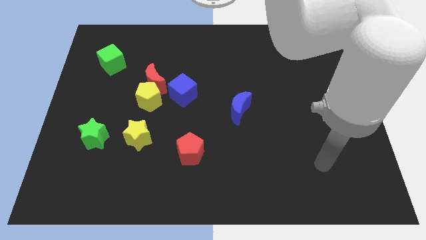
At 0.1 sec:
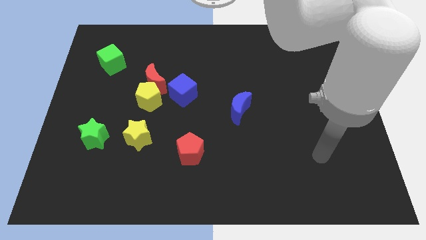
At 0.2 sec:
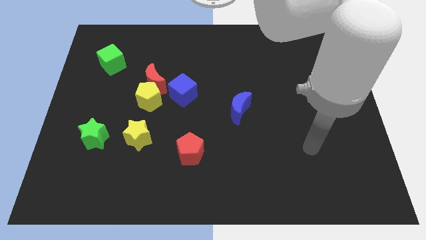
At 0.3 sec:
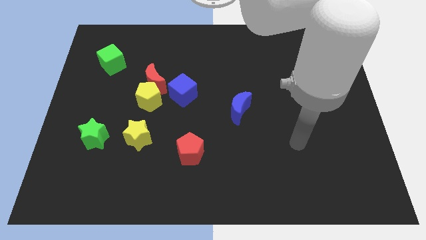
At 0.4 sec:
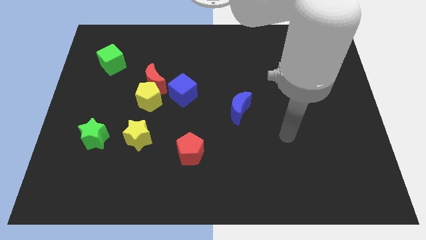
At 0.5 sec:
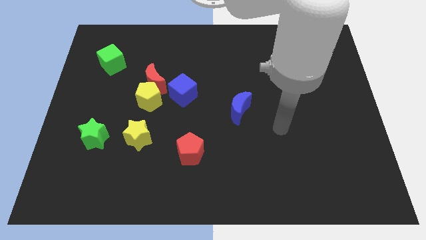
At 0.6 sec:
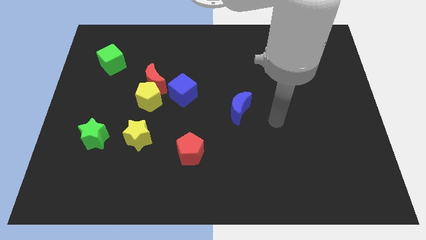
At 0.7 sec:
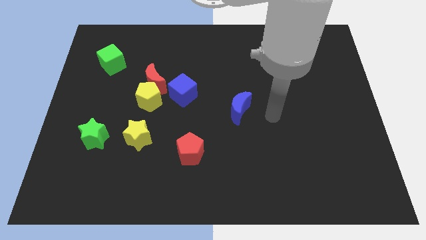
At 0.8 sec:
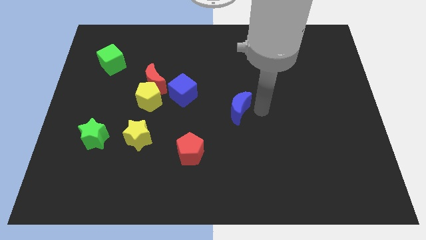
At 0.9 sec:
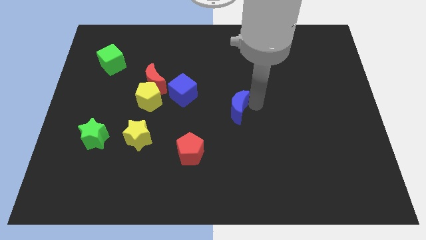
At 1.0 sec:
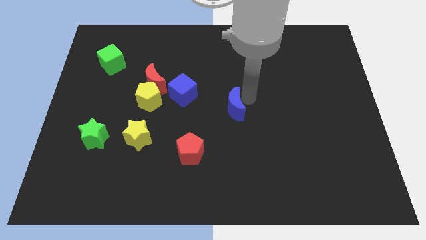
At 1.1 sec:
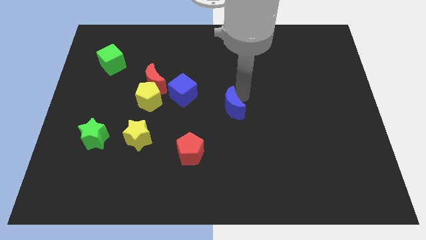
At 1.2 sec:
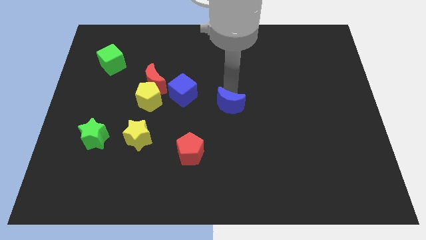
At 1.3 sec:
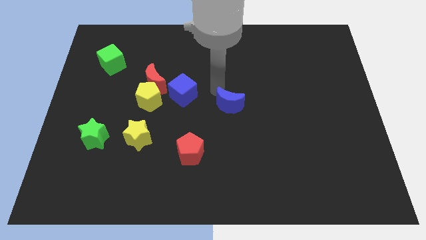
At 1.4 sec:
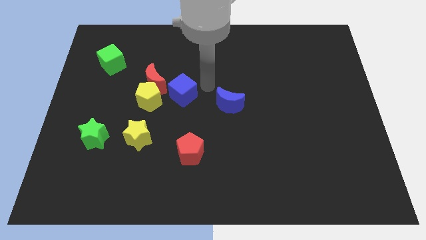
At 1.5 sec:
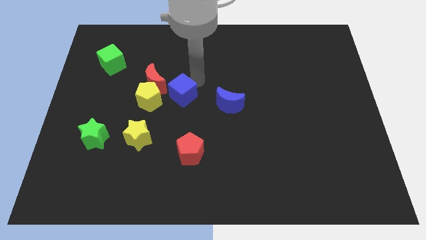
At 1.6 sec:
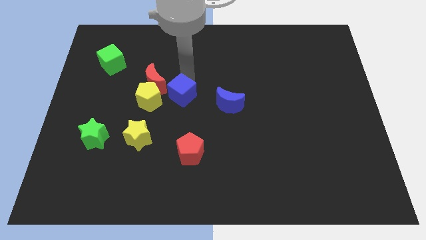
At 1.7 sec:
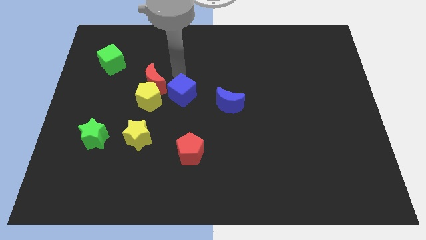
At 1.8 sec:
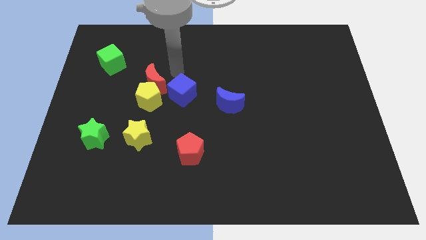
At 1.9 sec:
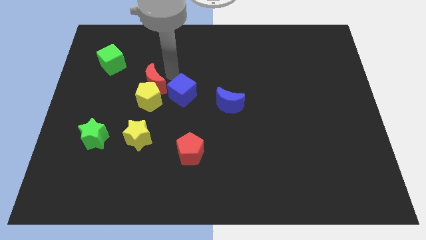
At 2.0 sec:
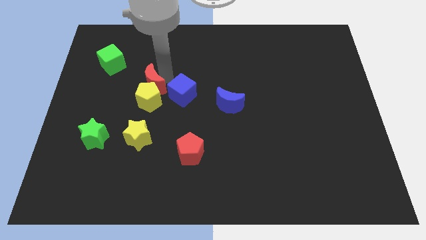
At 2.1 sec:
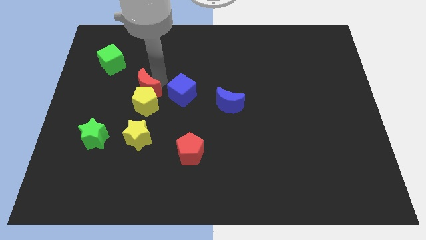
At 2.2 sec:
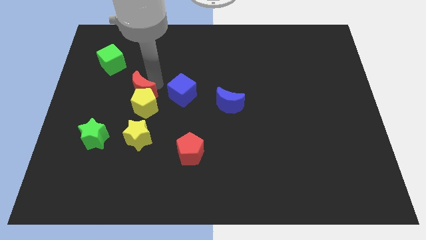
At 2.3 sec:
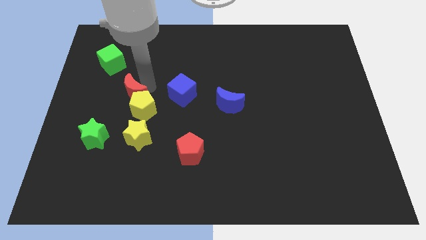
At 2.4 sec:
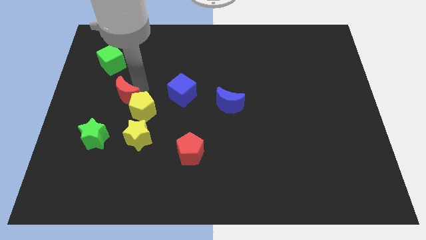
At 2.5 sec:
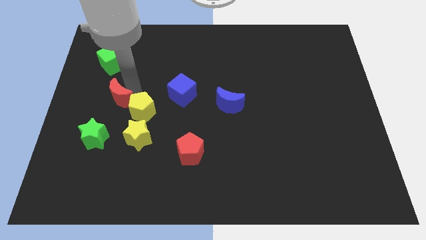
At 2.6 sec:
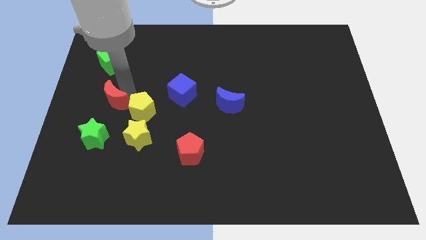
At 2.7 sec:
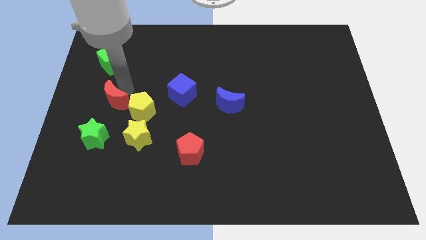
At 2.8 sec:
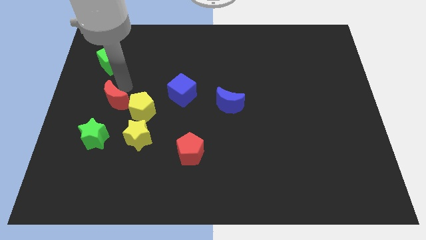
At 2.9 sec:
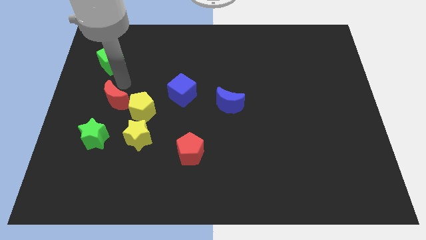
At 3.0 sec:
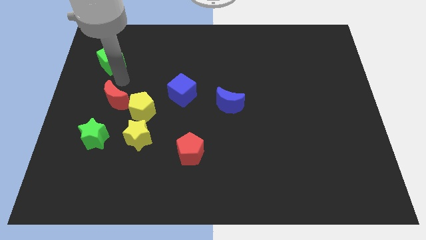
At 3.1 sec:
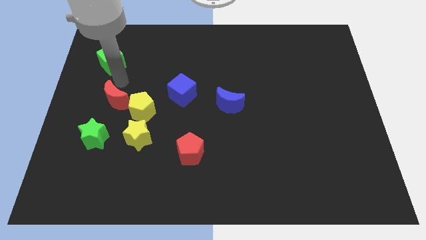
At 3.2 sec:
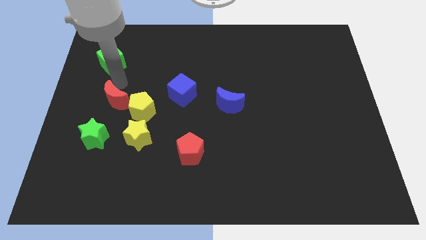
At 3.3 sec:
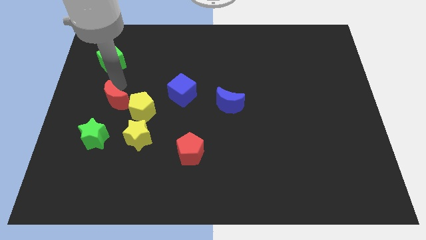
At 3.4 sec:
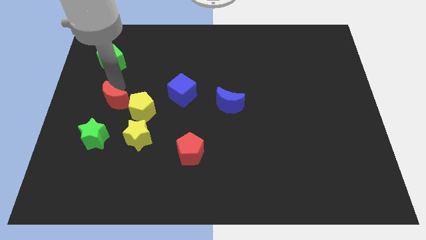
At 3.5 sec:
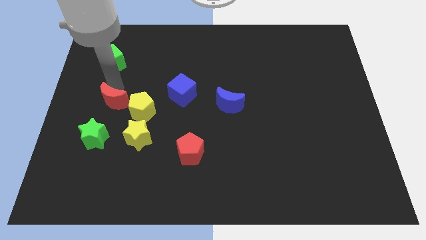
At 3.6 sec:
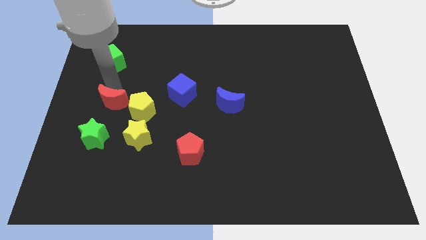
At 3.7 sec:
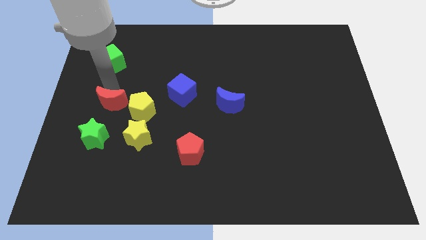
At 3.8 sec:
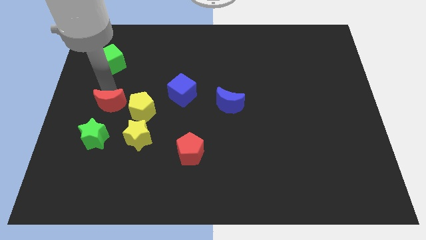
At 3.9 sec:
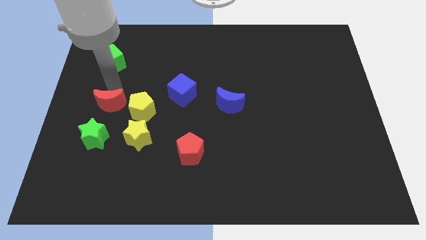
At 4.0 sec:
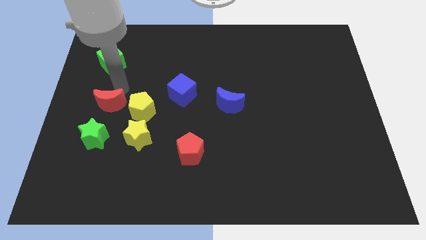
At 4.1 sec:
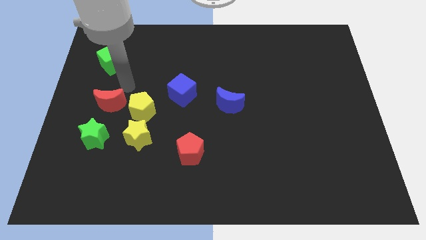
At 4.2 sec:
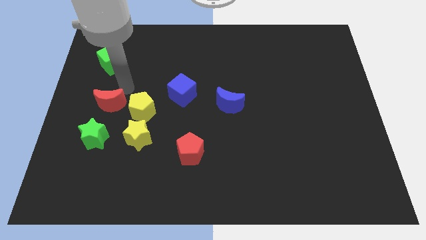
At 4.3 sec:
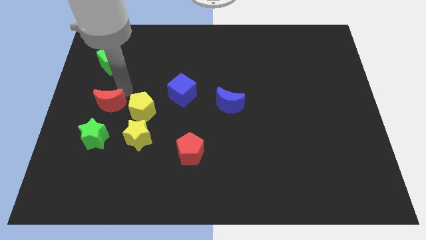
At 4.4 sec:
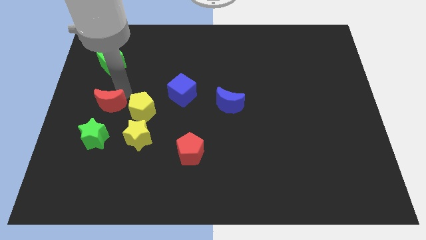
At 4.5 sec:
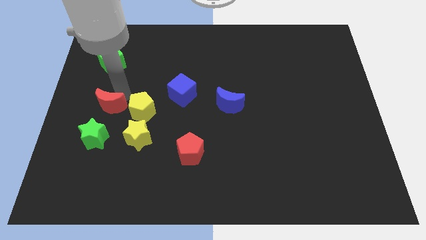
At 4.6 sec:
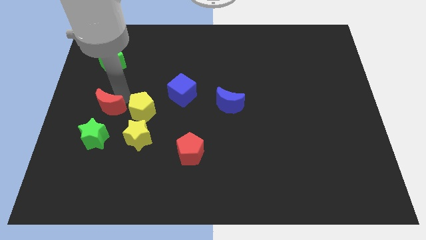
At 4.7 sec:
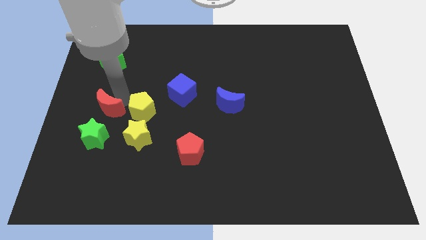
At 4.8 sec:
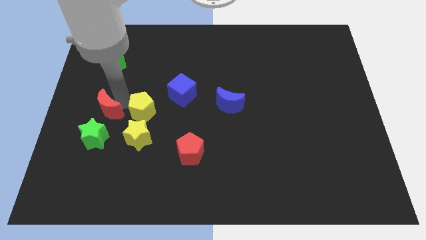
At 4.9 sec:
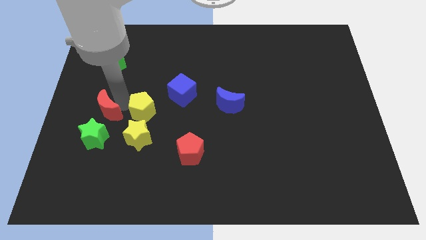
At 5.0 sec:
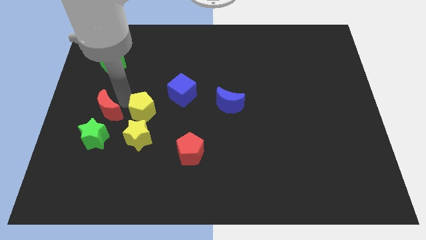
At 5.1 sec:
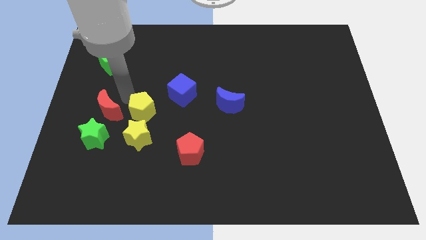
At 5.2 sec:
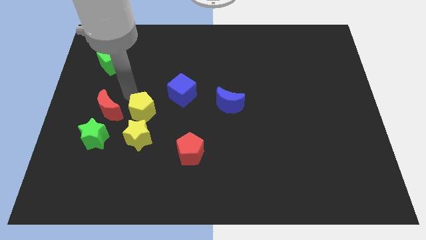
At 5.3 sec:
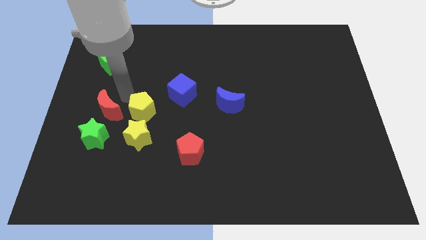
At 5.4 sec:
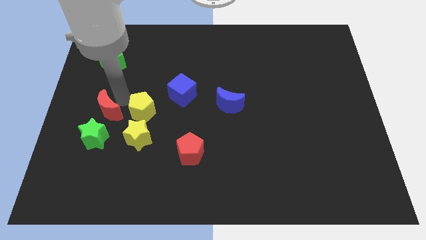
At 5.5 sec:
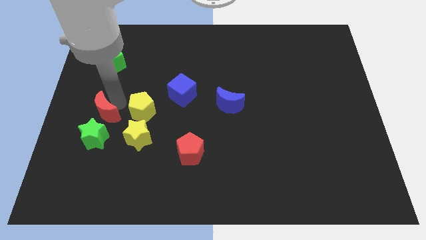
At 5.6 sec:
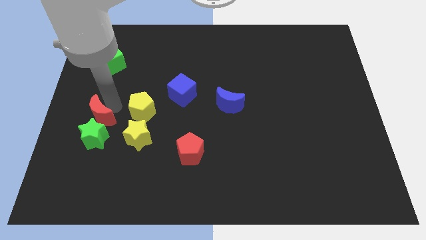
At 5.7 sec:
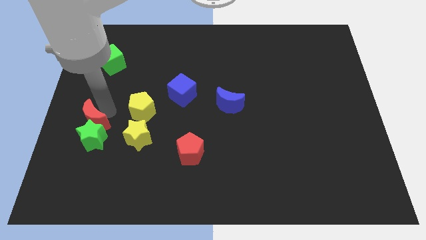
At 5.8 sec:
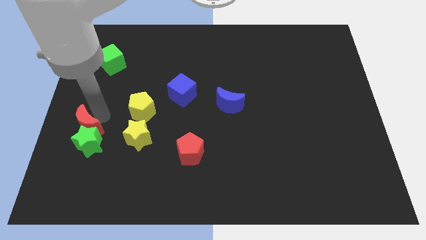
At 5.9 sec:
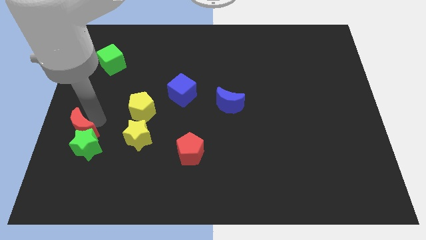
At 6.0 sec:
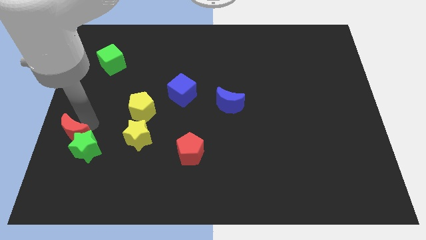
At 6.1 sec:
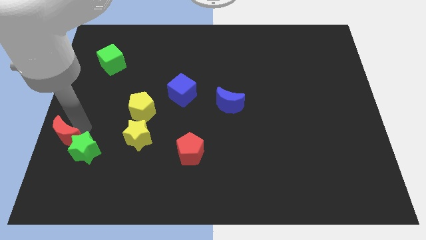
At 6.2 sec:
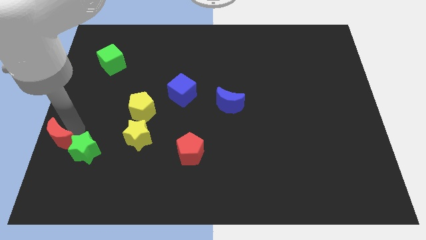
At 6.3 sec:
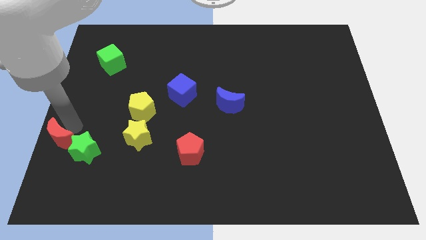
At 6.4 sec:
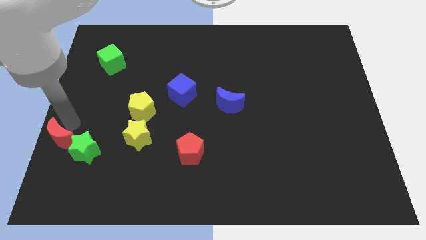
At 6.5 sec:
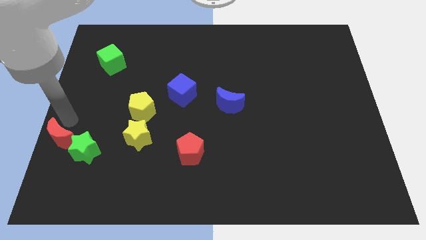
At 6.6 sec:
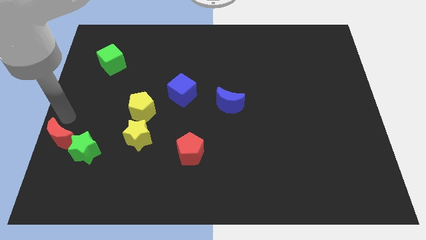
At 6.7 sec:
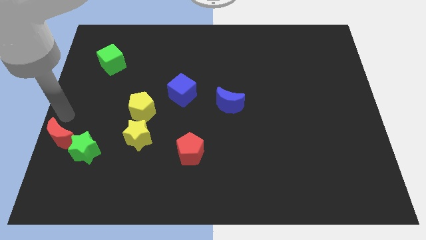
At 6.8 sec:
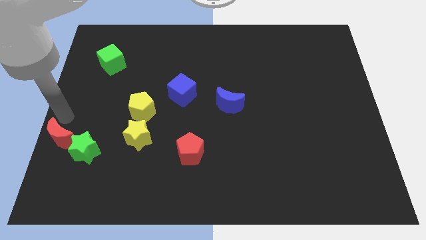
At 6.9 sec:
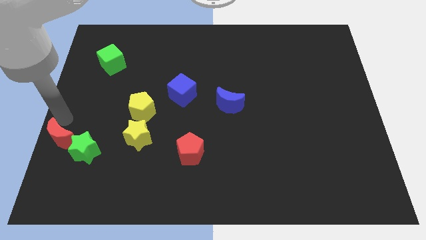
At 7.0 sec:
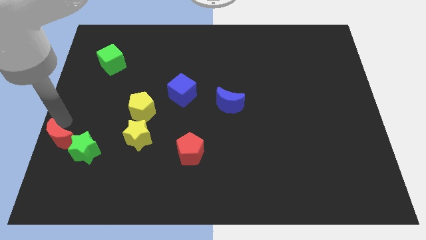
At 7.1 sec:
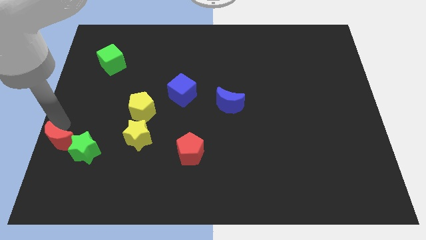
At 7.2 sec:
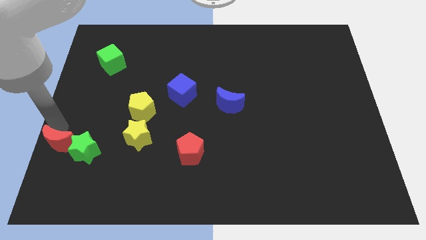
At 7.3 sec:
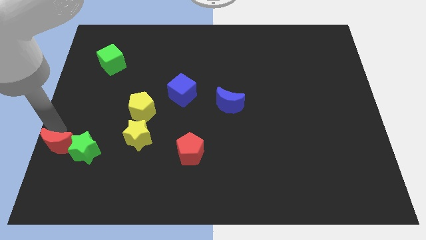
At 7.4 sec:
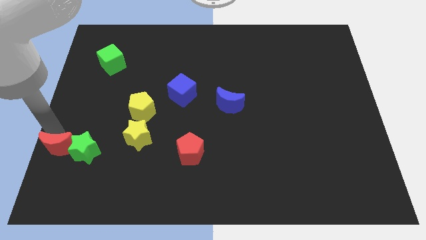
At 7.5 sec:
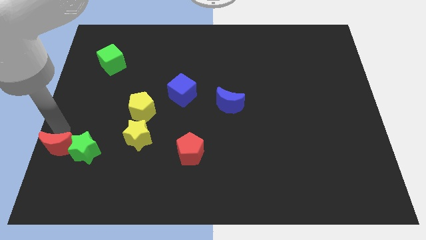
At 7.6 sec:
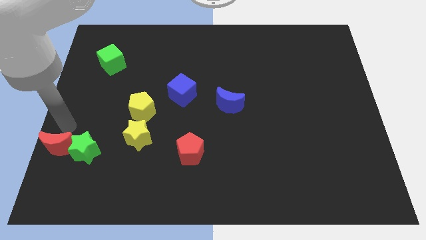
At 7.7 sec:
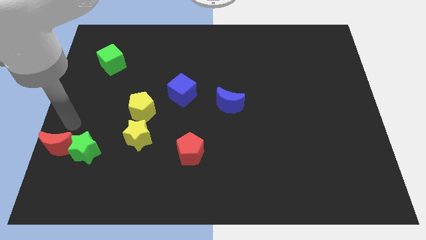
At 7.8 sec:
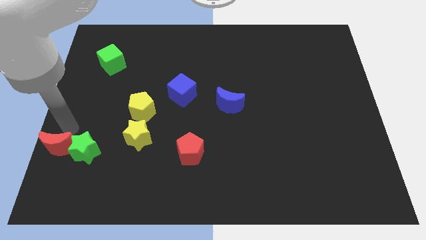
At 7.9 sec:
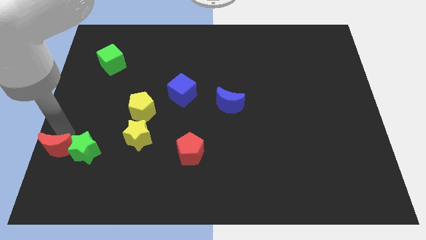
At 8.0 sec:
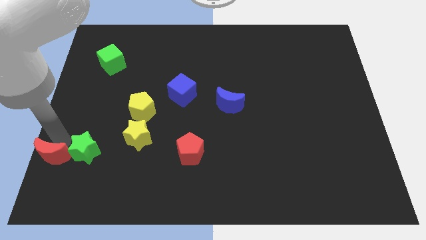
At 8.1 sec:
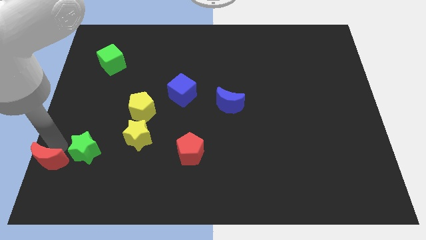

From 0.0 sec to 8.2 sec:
move the red moon to the lower left corner
